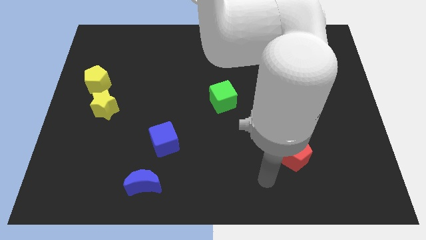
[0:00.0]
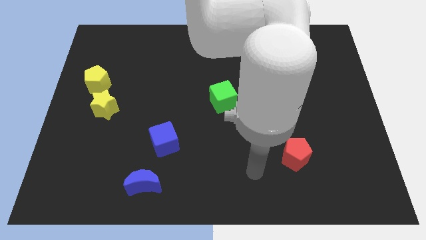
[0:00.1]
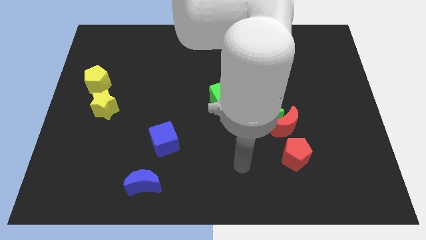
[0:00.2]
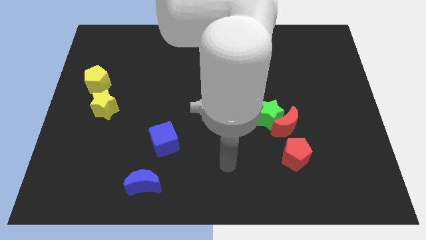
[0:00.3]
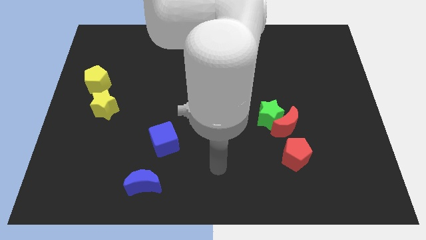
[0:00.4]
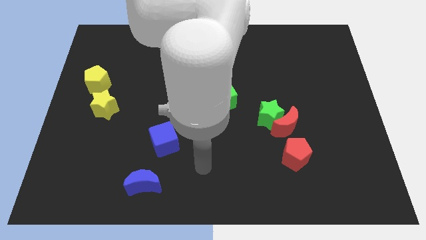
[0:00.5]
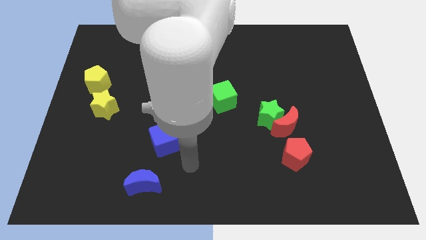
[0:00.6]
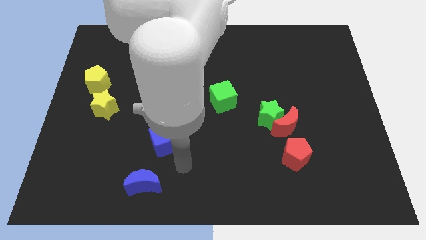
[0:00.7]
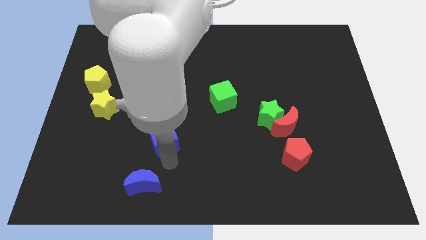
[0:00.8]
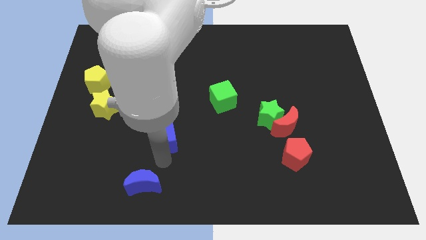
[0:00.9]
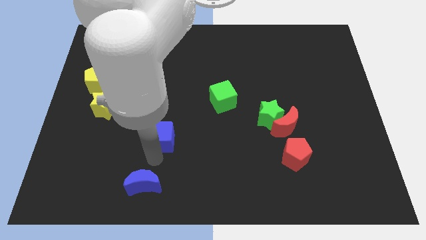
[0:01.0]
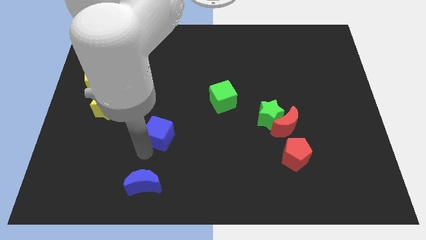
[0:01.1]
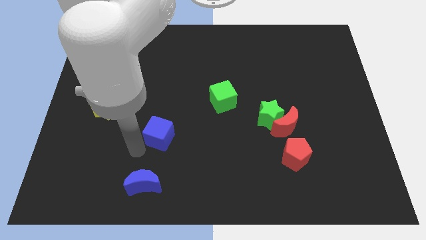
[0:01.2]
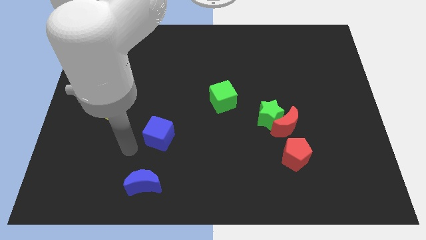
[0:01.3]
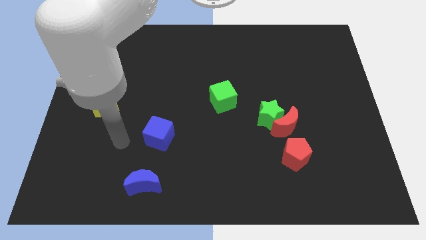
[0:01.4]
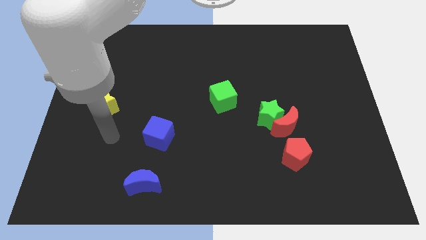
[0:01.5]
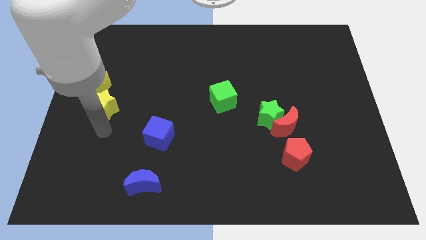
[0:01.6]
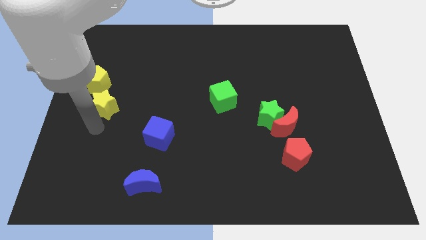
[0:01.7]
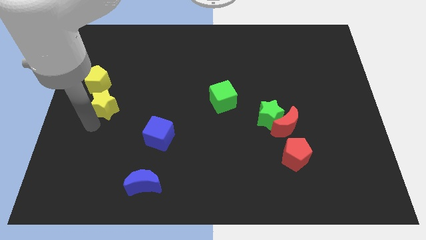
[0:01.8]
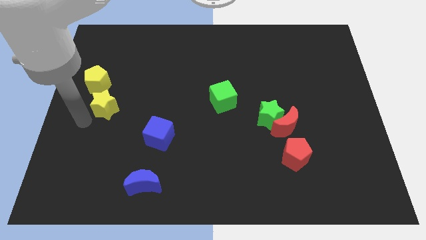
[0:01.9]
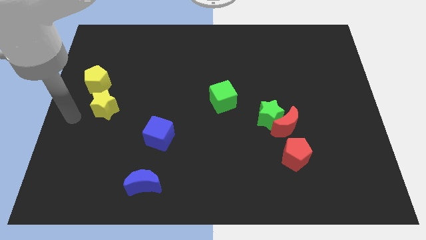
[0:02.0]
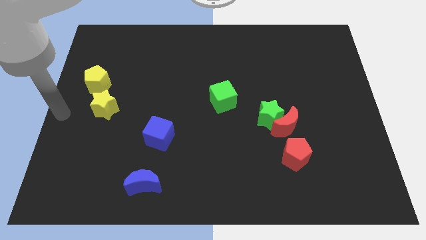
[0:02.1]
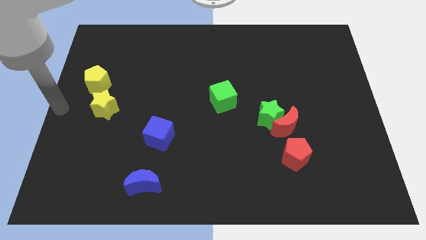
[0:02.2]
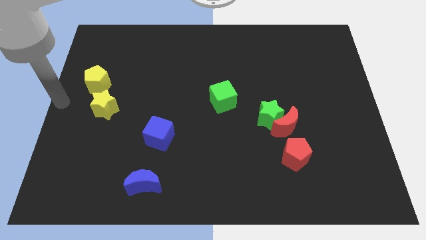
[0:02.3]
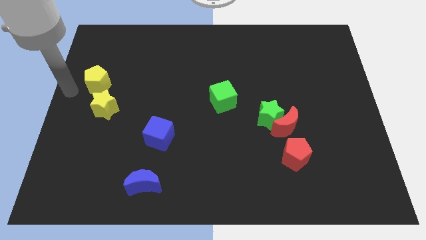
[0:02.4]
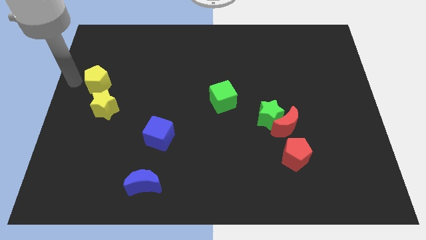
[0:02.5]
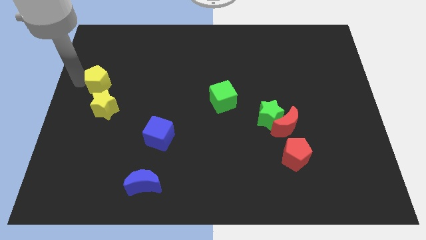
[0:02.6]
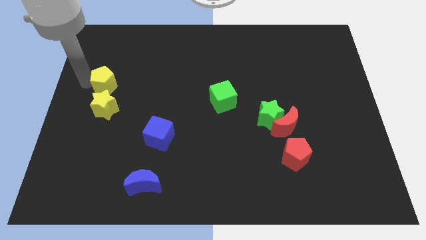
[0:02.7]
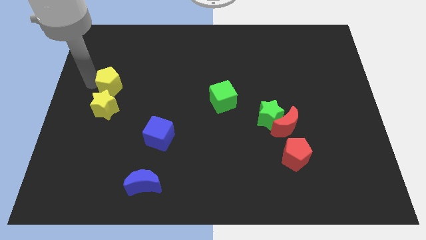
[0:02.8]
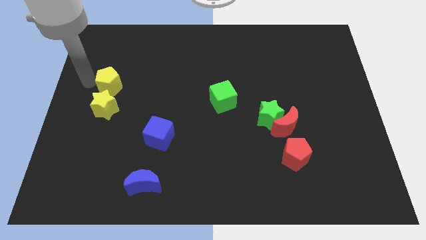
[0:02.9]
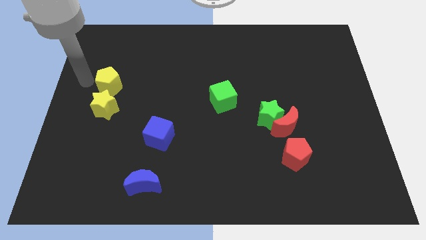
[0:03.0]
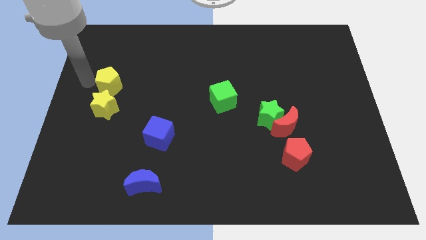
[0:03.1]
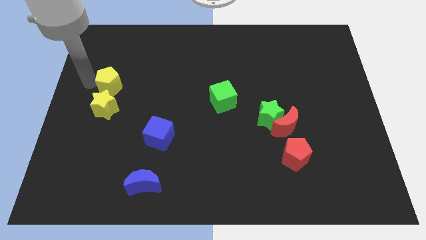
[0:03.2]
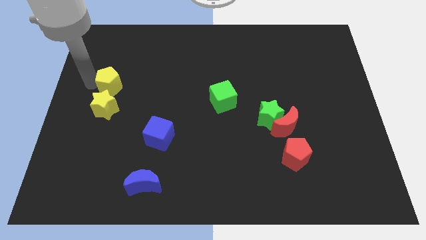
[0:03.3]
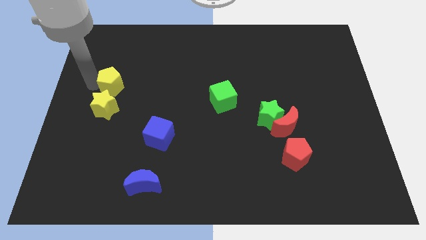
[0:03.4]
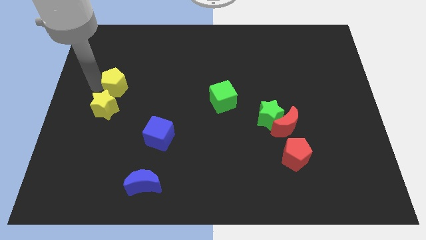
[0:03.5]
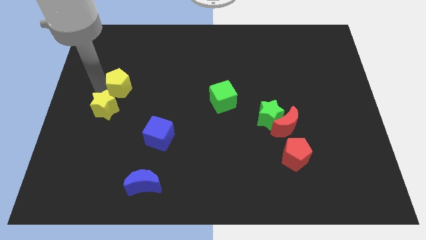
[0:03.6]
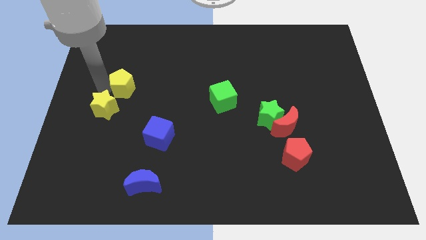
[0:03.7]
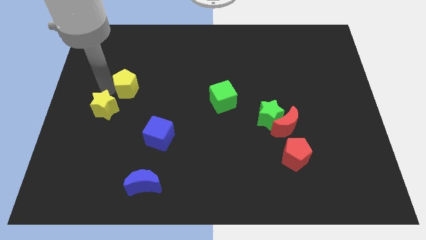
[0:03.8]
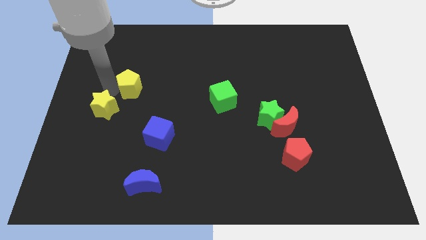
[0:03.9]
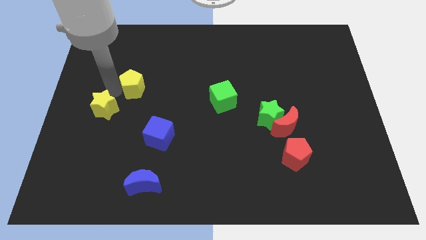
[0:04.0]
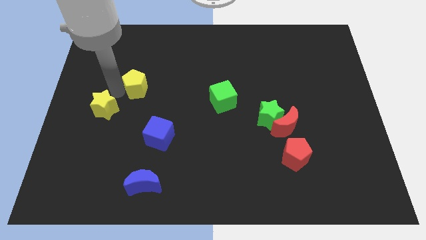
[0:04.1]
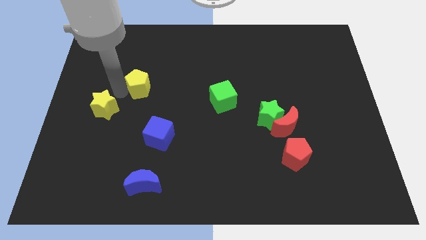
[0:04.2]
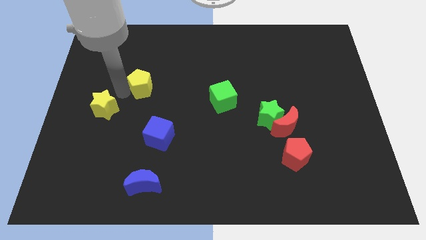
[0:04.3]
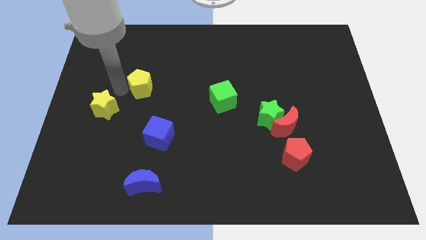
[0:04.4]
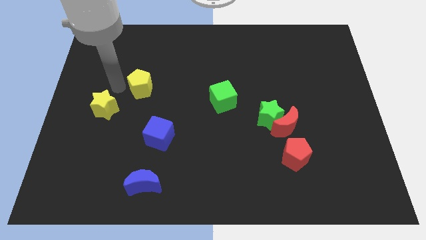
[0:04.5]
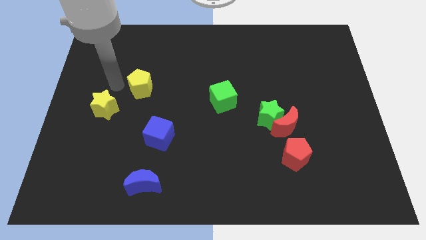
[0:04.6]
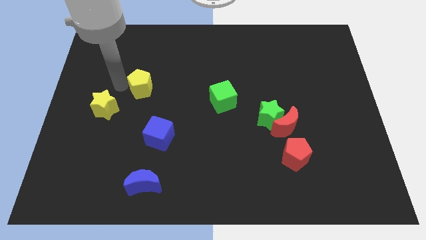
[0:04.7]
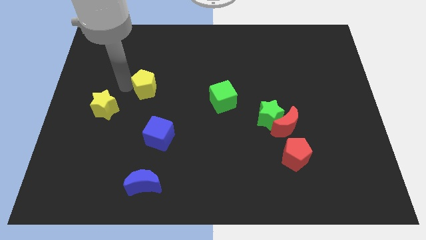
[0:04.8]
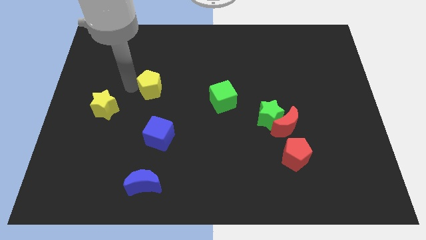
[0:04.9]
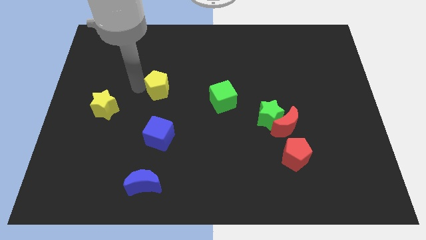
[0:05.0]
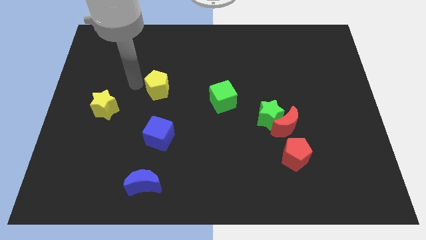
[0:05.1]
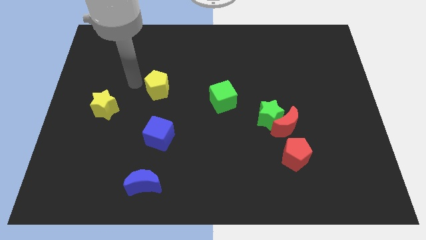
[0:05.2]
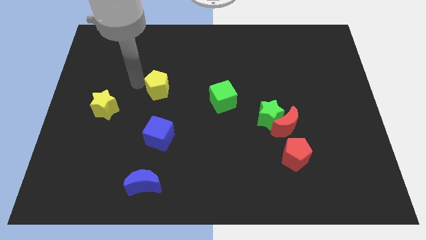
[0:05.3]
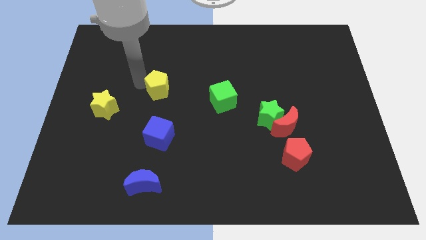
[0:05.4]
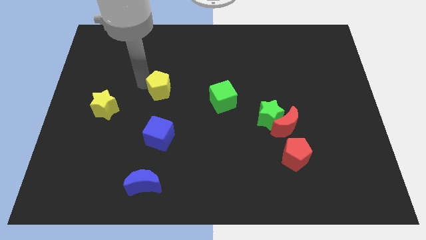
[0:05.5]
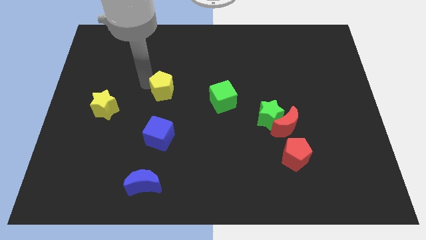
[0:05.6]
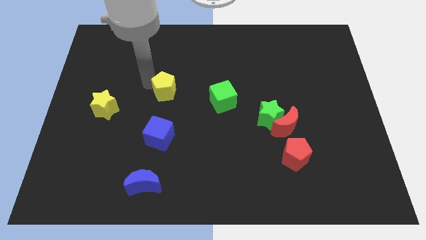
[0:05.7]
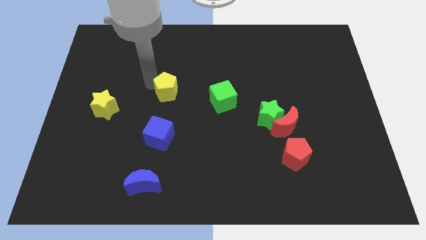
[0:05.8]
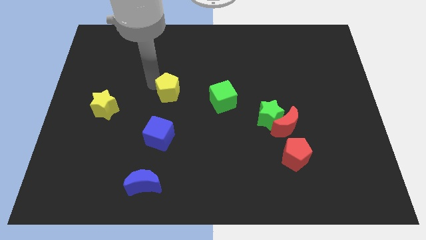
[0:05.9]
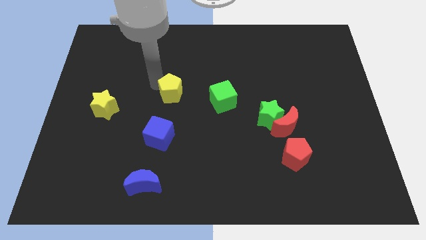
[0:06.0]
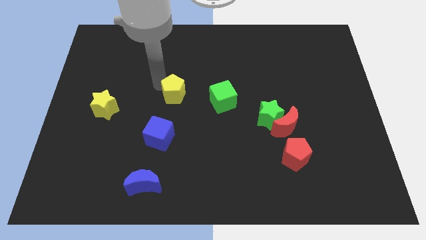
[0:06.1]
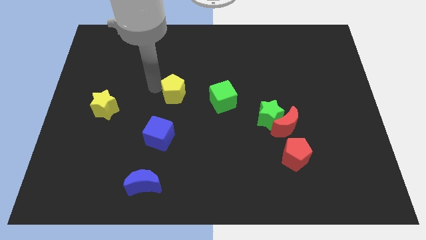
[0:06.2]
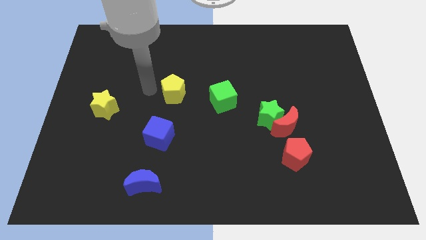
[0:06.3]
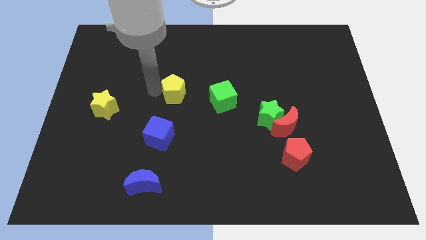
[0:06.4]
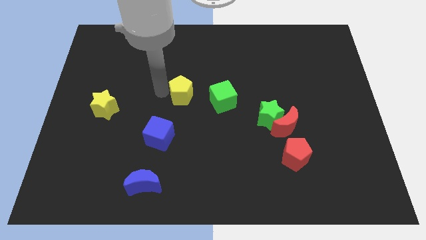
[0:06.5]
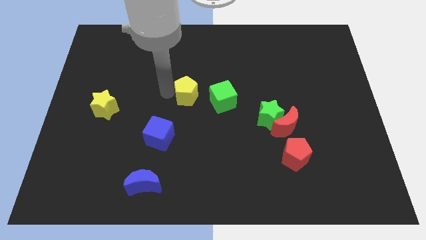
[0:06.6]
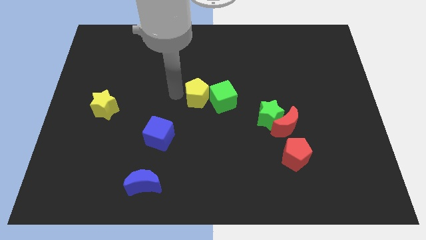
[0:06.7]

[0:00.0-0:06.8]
put the yellow pentagon next to the green cube
